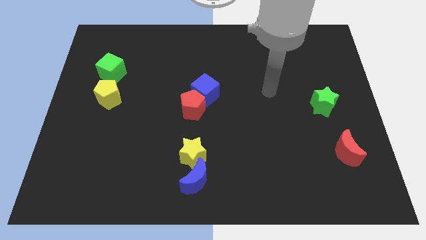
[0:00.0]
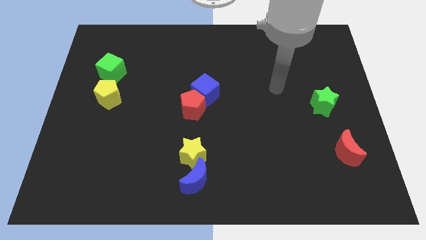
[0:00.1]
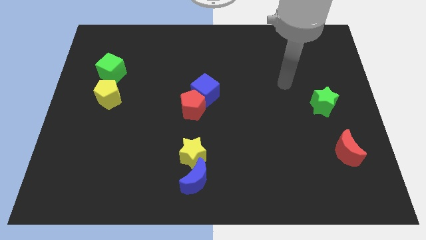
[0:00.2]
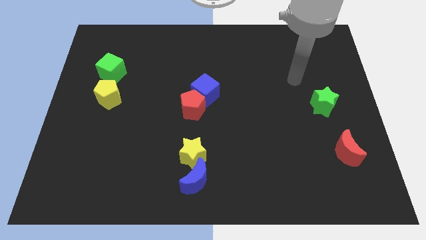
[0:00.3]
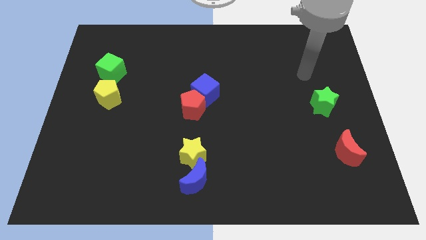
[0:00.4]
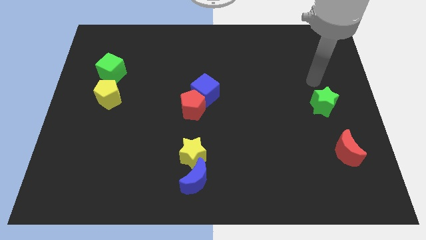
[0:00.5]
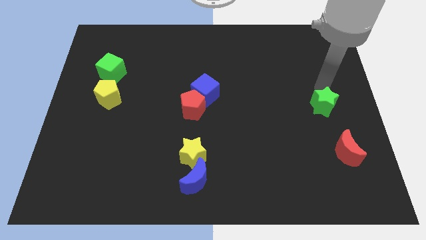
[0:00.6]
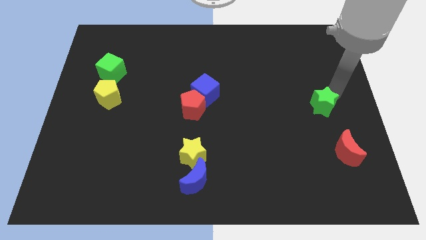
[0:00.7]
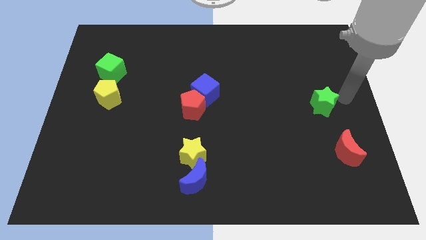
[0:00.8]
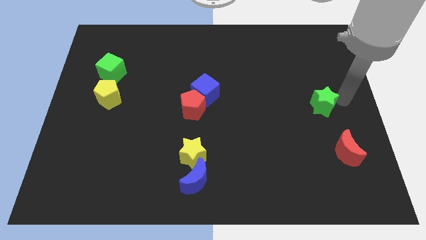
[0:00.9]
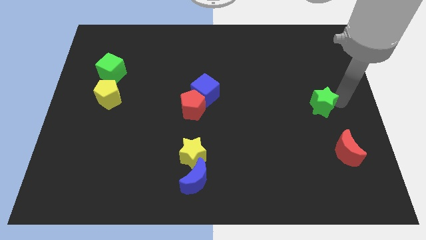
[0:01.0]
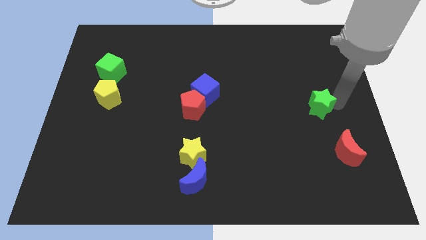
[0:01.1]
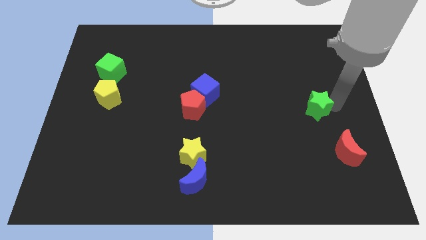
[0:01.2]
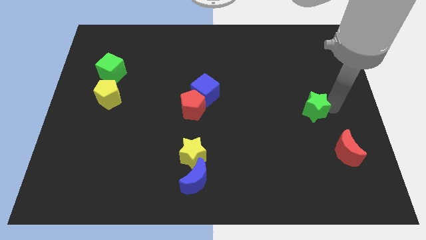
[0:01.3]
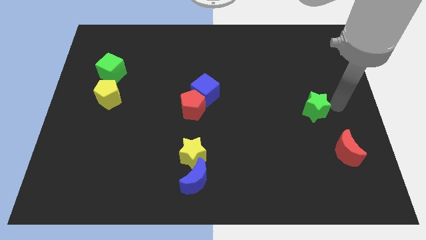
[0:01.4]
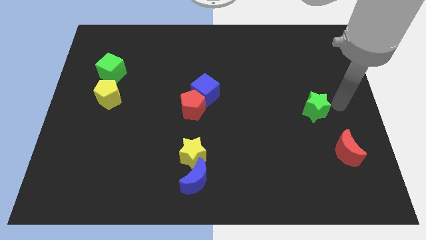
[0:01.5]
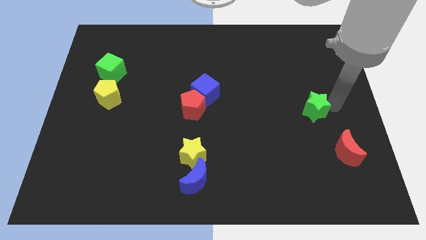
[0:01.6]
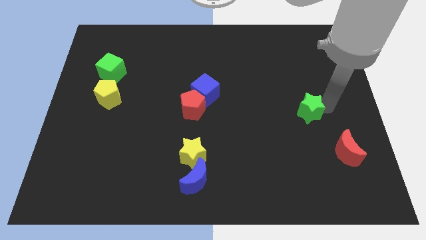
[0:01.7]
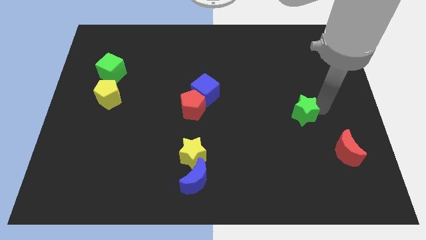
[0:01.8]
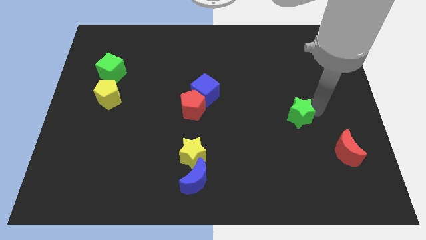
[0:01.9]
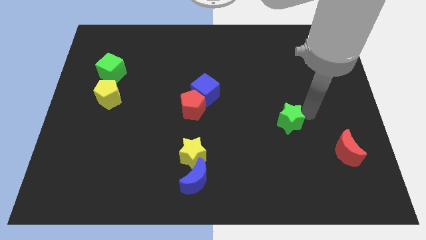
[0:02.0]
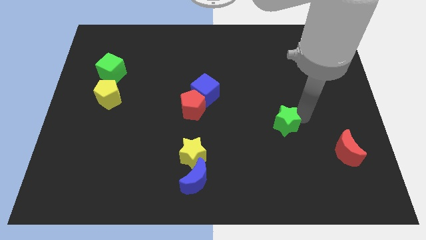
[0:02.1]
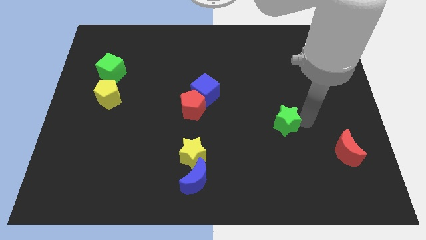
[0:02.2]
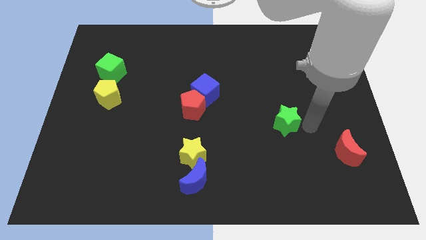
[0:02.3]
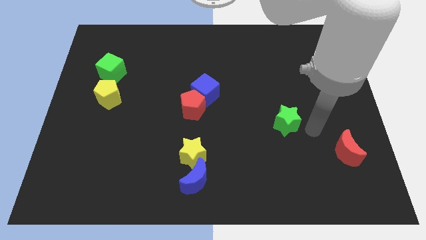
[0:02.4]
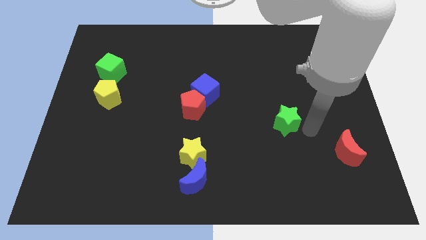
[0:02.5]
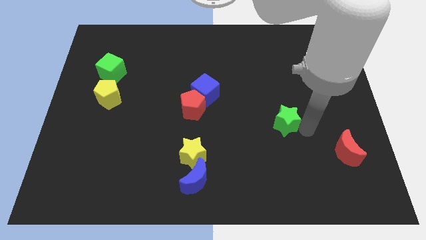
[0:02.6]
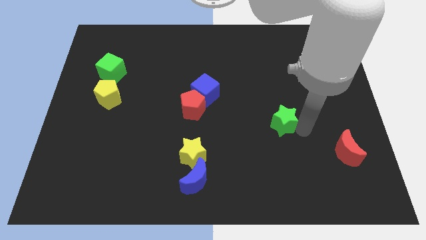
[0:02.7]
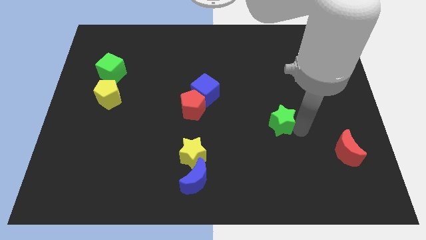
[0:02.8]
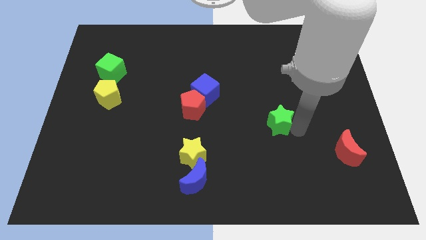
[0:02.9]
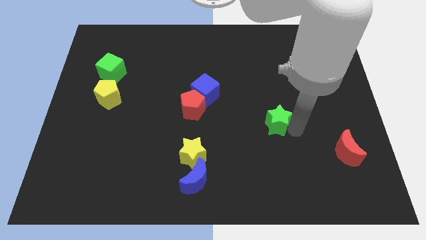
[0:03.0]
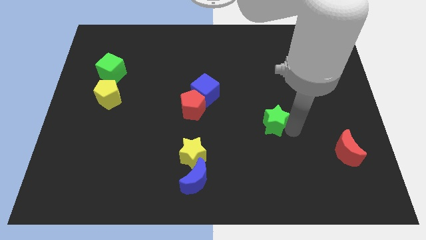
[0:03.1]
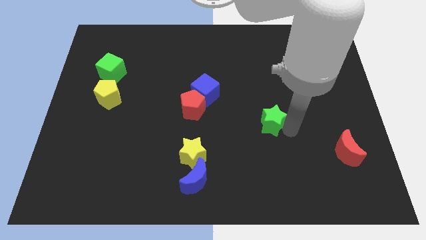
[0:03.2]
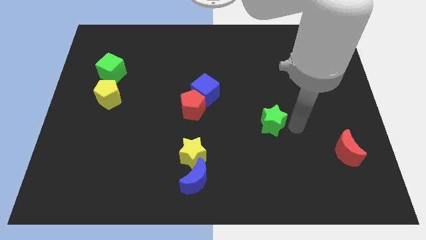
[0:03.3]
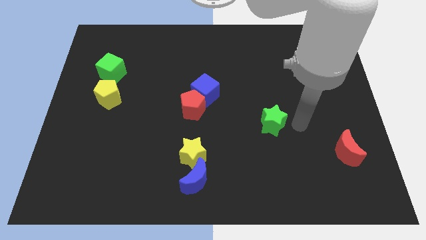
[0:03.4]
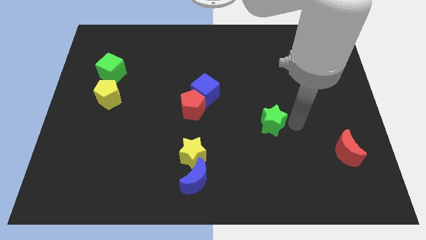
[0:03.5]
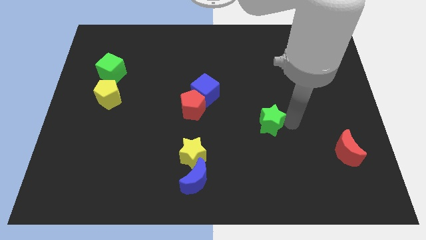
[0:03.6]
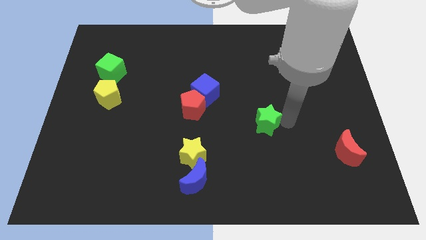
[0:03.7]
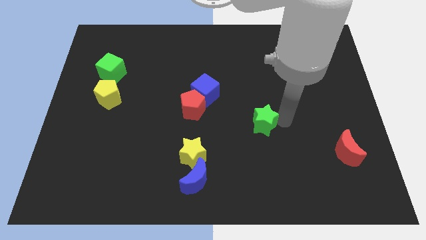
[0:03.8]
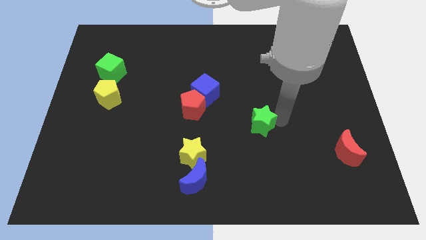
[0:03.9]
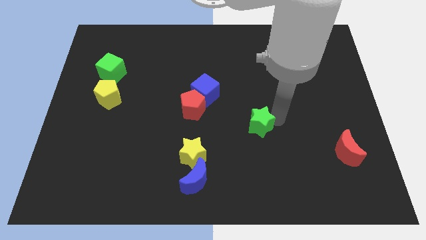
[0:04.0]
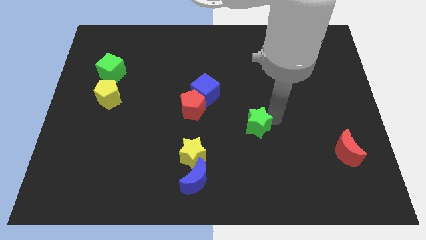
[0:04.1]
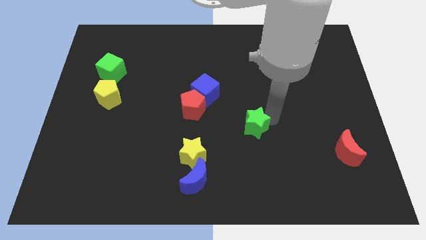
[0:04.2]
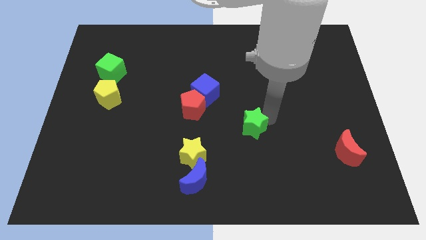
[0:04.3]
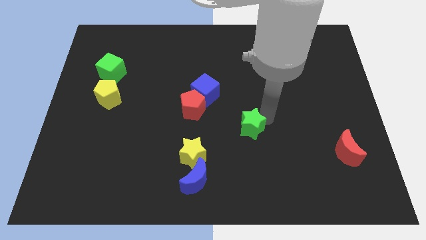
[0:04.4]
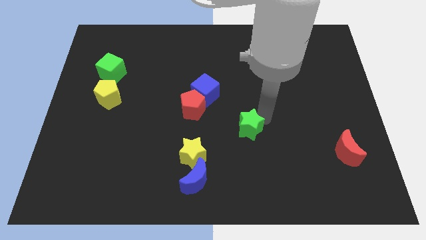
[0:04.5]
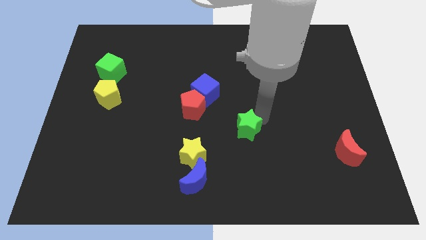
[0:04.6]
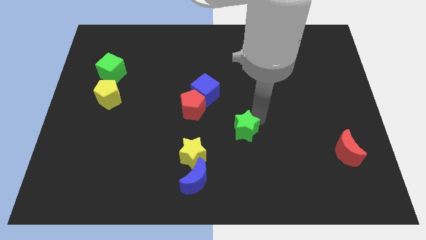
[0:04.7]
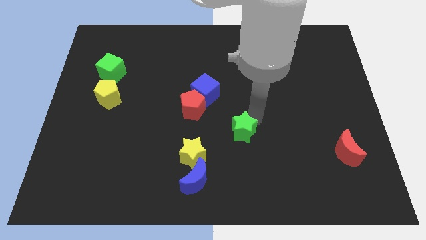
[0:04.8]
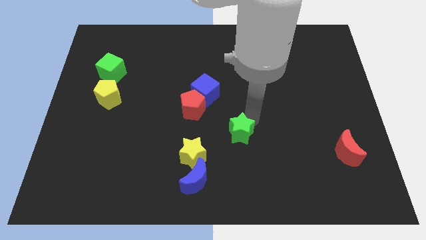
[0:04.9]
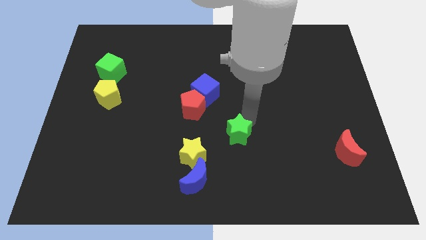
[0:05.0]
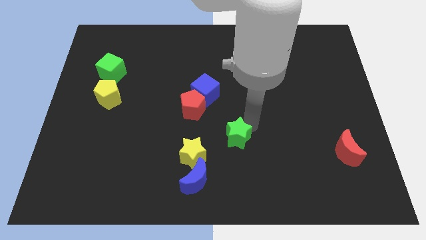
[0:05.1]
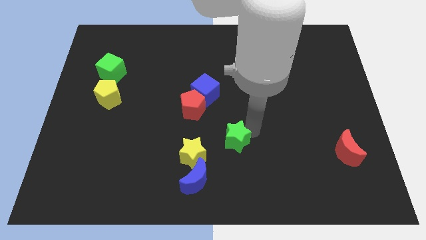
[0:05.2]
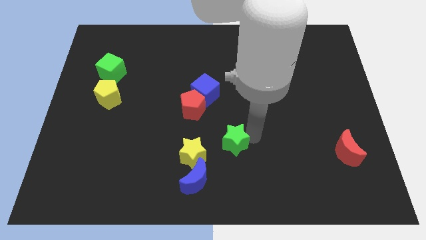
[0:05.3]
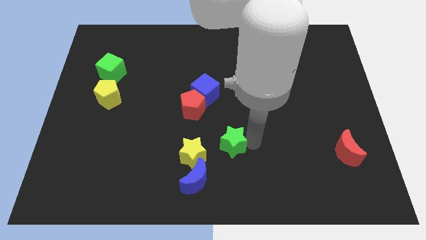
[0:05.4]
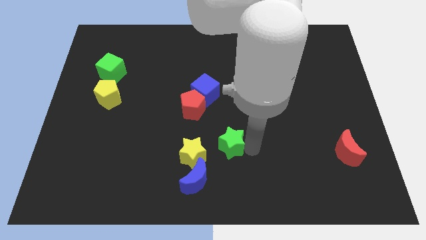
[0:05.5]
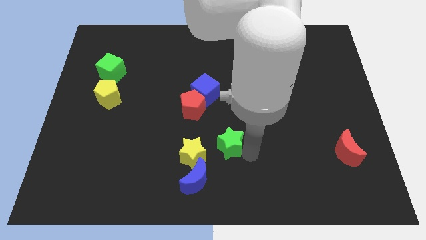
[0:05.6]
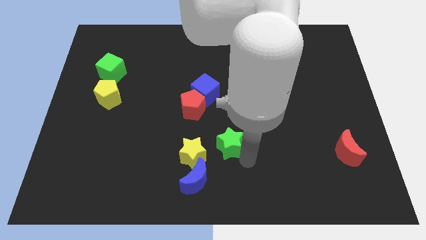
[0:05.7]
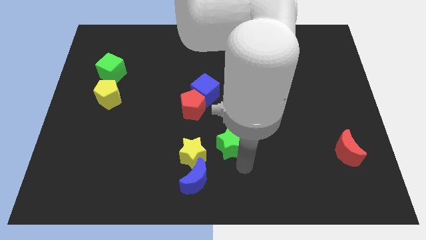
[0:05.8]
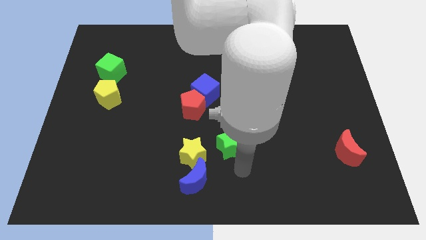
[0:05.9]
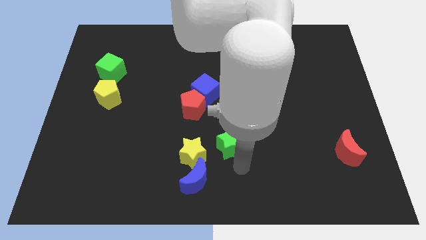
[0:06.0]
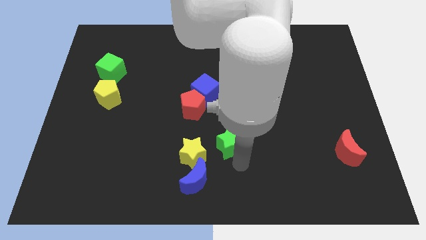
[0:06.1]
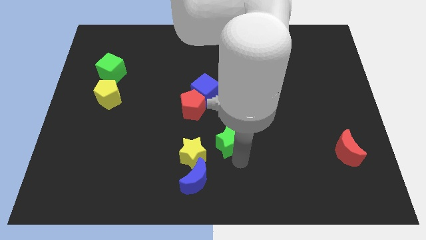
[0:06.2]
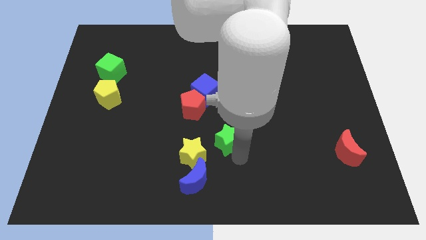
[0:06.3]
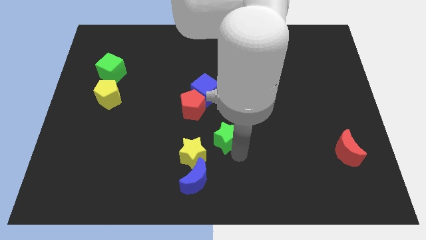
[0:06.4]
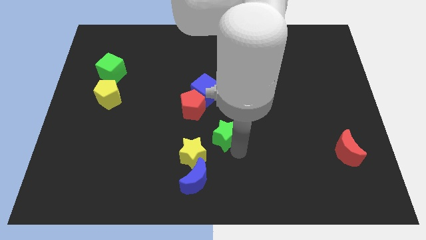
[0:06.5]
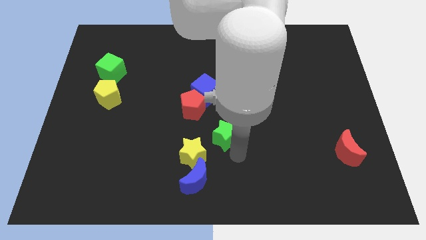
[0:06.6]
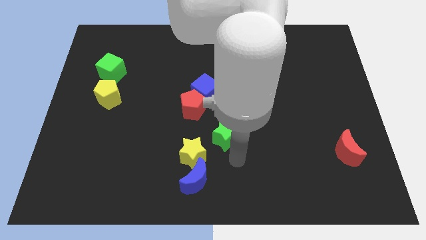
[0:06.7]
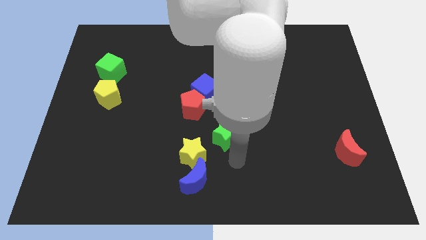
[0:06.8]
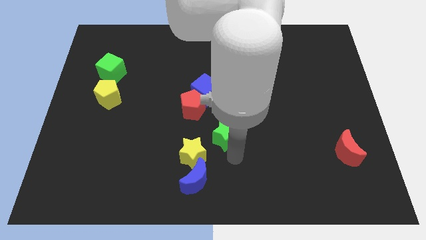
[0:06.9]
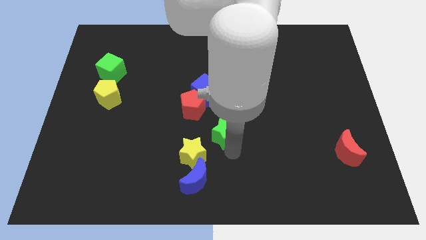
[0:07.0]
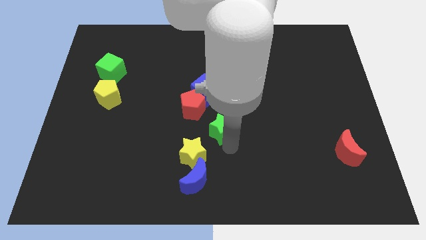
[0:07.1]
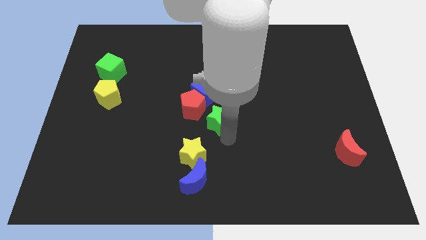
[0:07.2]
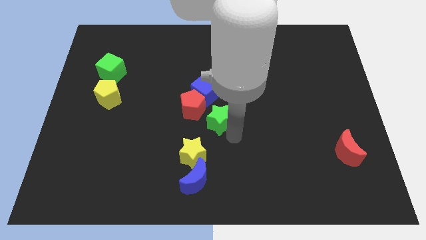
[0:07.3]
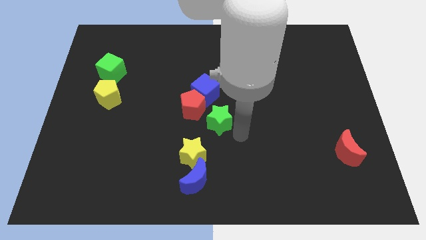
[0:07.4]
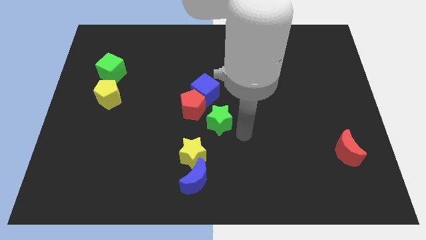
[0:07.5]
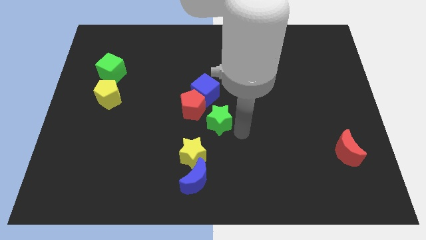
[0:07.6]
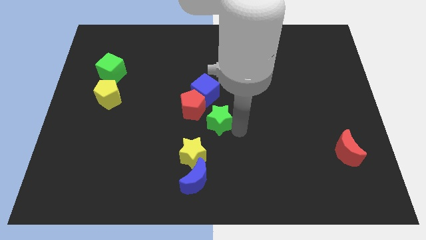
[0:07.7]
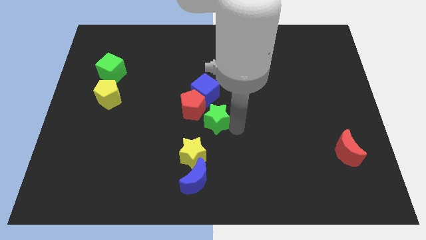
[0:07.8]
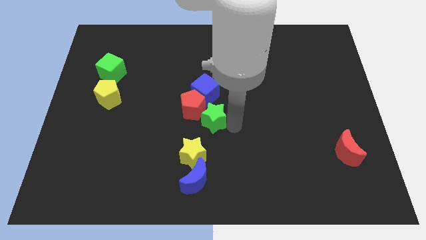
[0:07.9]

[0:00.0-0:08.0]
push the green star close to the red pentagon
